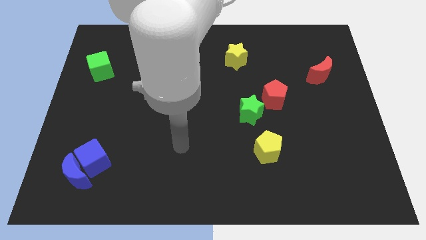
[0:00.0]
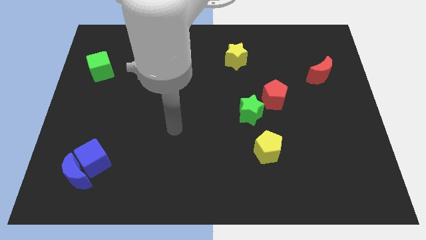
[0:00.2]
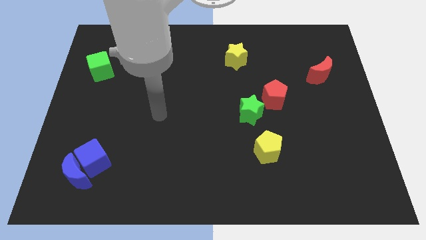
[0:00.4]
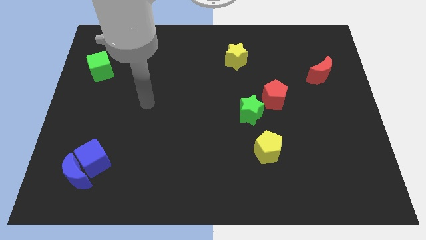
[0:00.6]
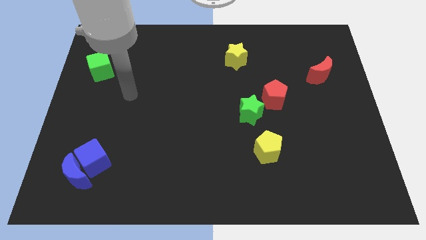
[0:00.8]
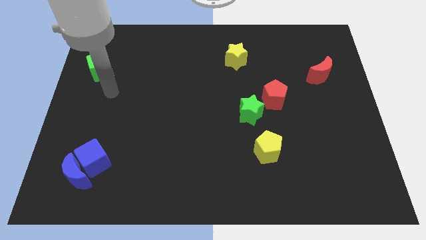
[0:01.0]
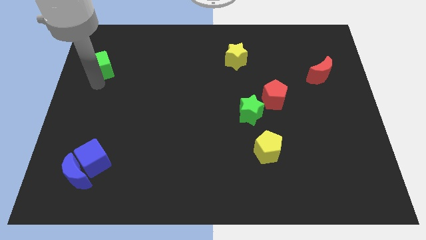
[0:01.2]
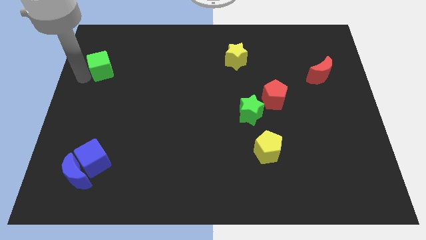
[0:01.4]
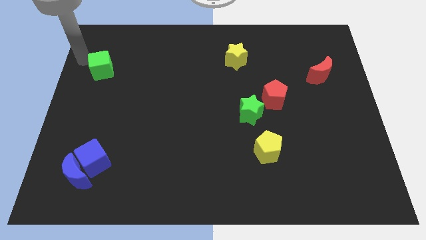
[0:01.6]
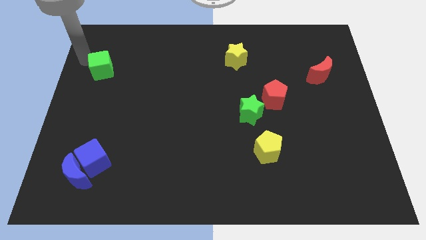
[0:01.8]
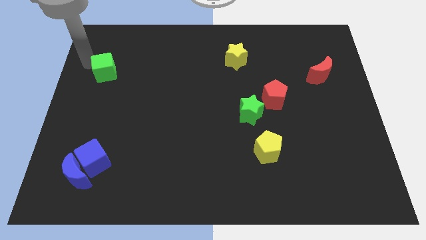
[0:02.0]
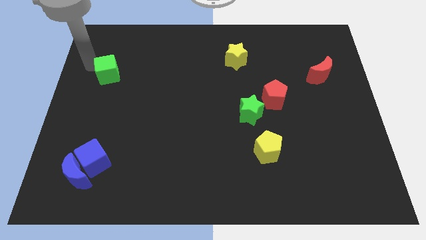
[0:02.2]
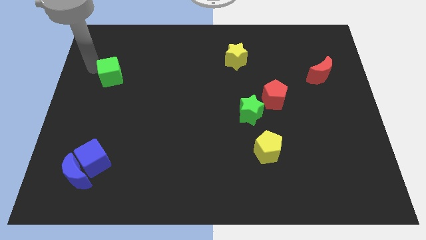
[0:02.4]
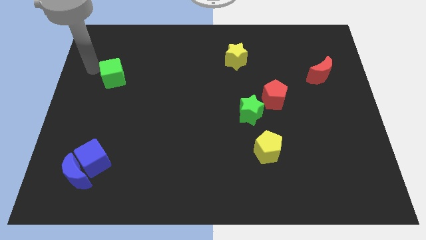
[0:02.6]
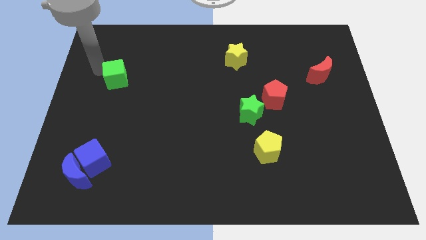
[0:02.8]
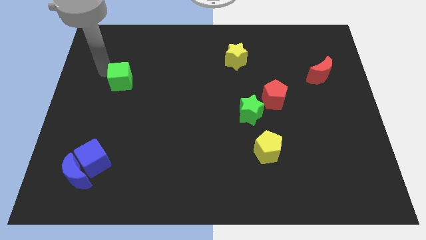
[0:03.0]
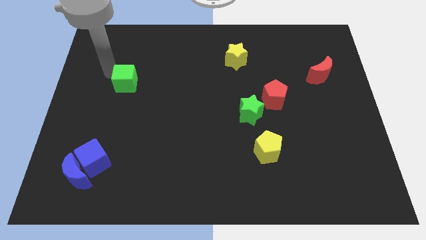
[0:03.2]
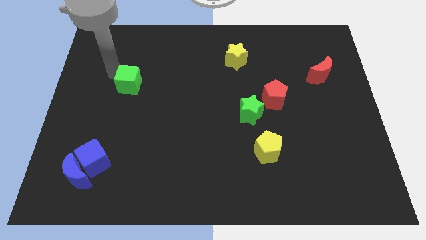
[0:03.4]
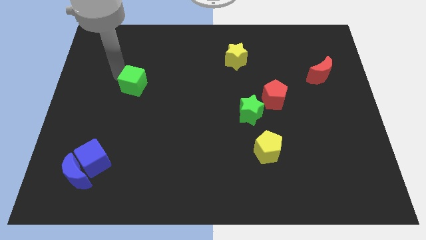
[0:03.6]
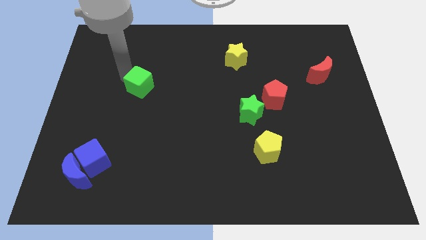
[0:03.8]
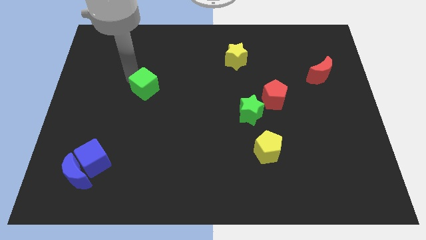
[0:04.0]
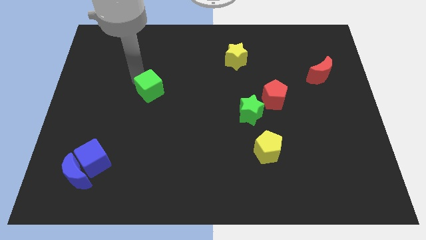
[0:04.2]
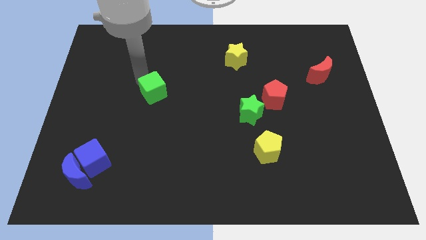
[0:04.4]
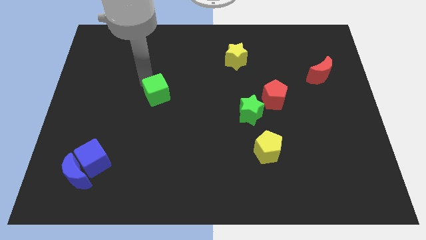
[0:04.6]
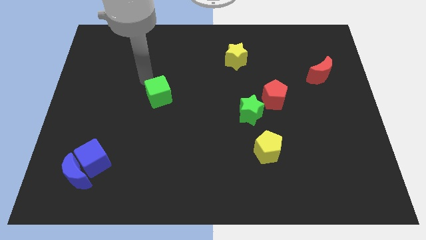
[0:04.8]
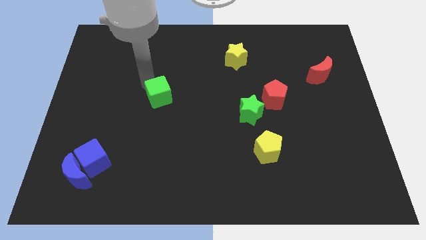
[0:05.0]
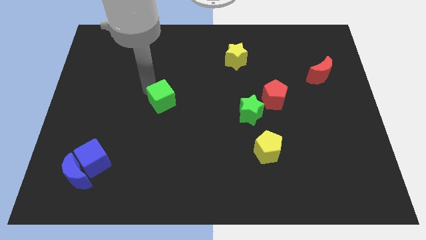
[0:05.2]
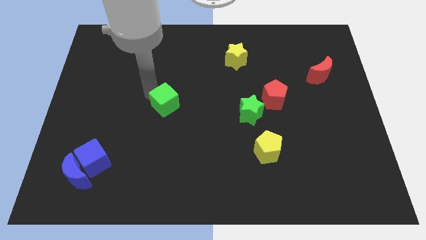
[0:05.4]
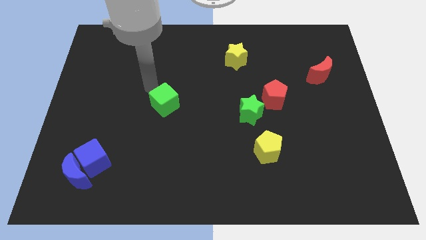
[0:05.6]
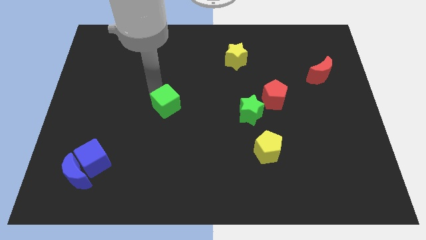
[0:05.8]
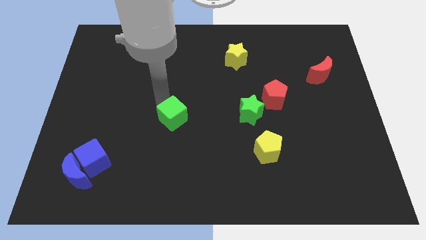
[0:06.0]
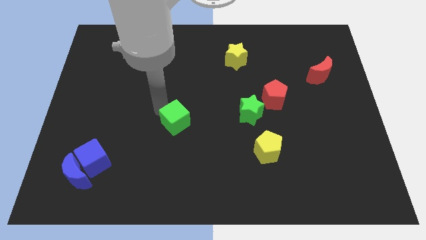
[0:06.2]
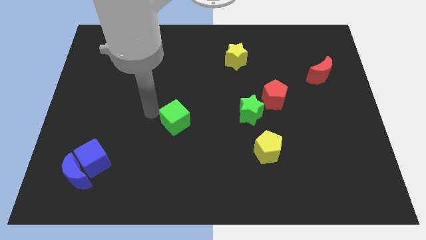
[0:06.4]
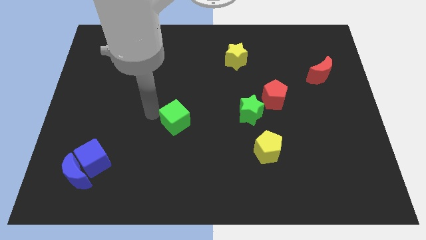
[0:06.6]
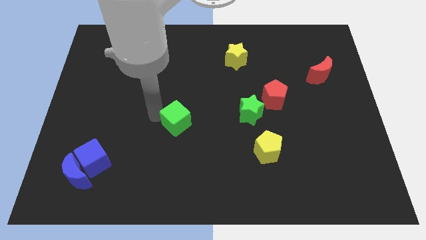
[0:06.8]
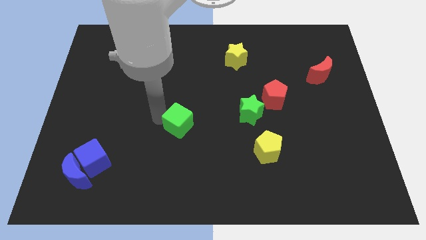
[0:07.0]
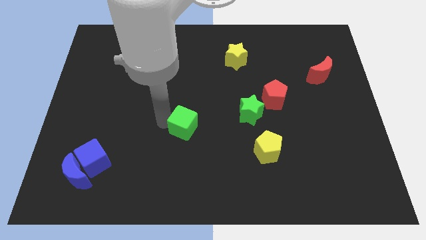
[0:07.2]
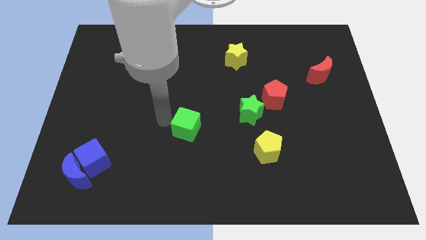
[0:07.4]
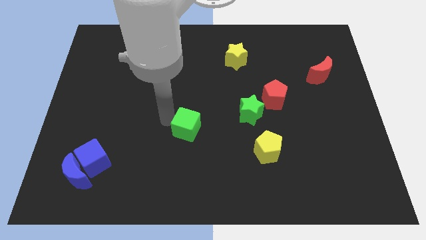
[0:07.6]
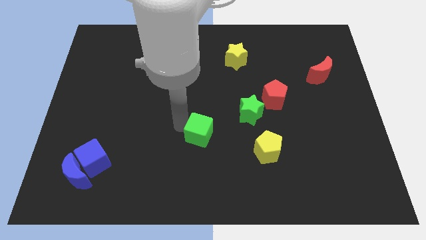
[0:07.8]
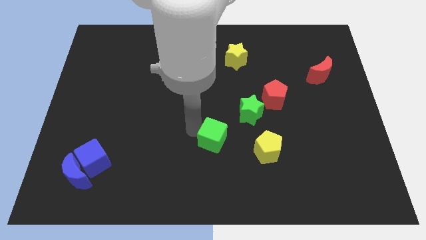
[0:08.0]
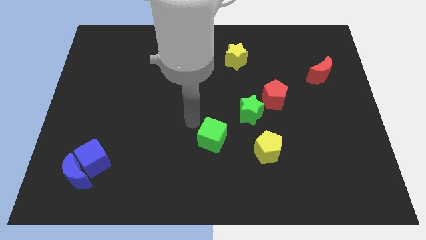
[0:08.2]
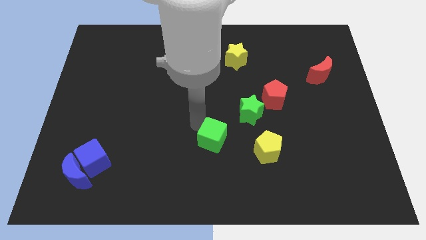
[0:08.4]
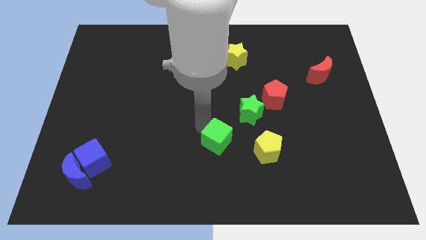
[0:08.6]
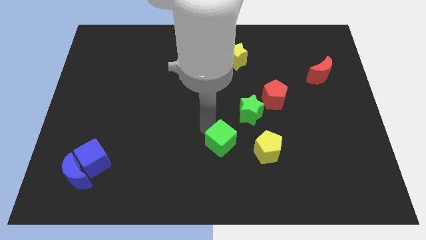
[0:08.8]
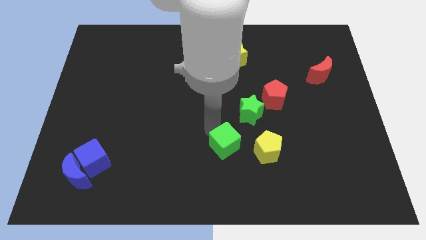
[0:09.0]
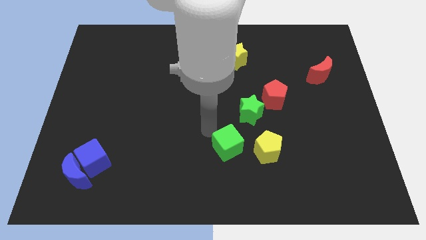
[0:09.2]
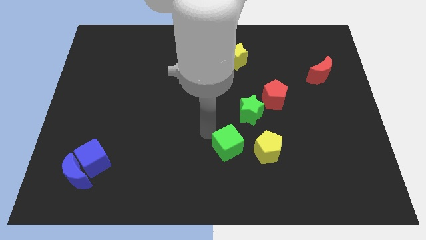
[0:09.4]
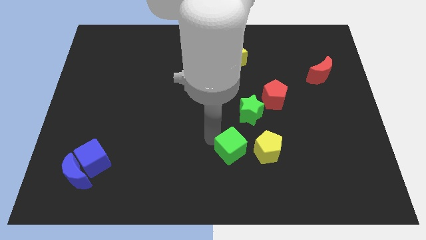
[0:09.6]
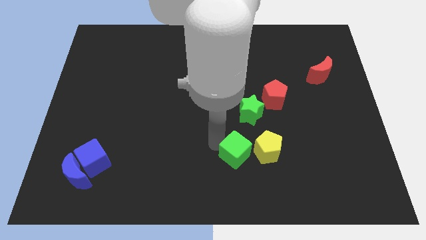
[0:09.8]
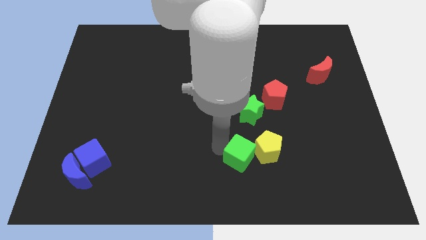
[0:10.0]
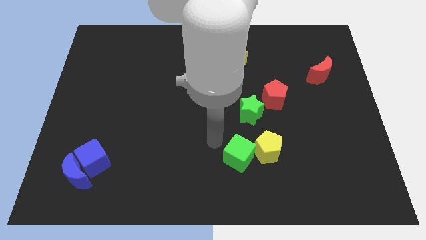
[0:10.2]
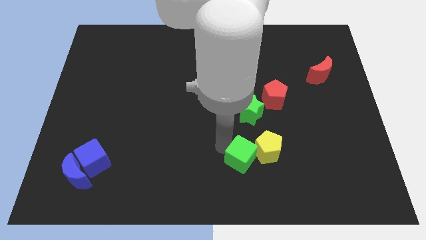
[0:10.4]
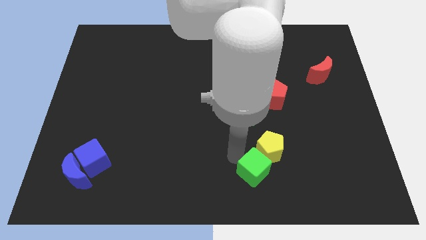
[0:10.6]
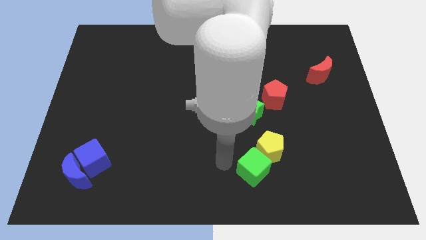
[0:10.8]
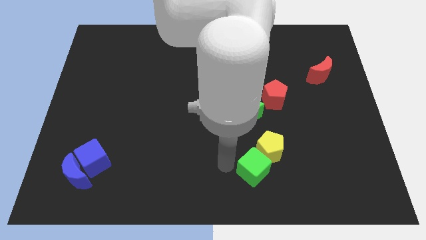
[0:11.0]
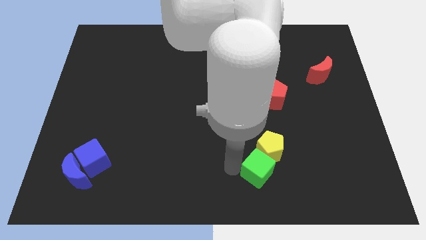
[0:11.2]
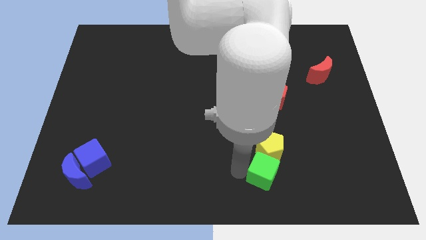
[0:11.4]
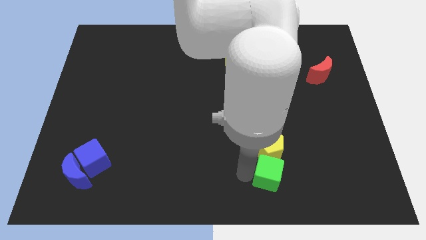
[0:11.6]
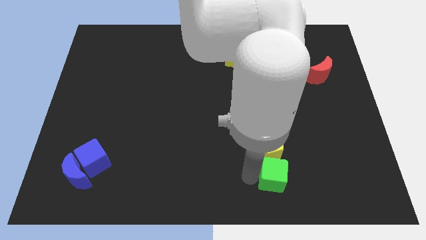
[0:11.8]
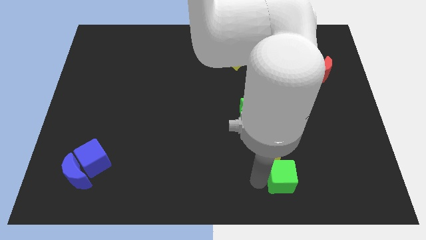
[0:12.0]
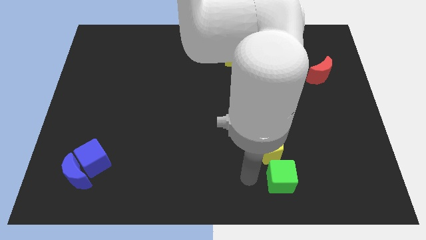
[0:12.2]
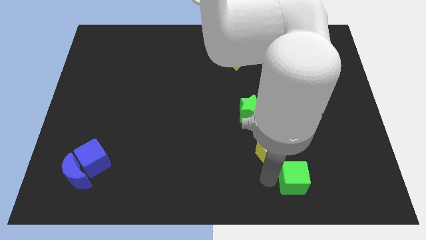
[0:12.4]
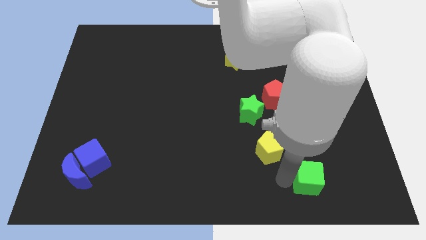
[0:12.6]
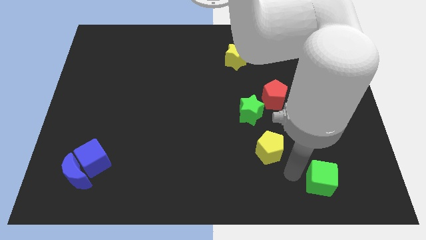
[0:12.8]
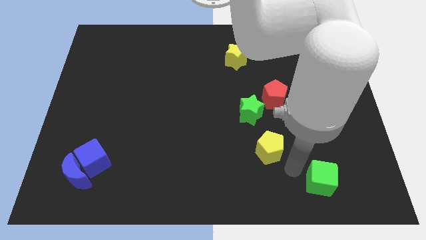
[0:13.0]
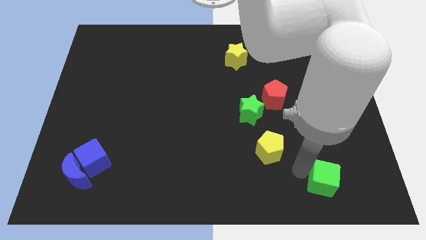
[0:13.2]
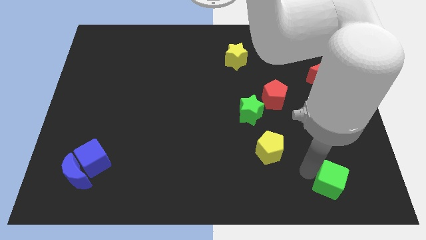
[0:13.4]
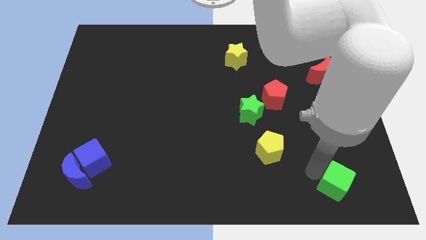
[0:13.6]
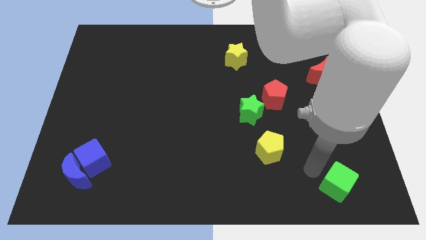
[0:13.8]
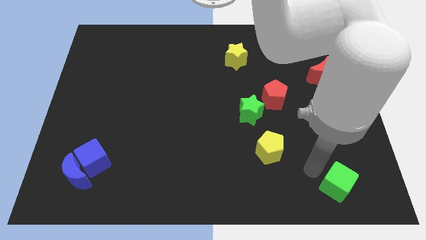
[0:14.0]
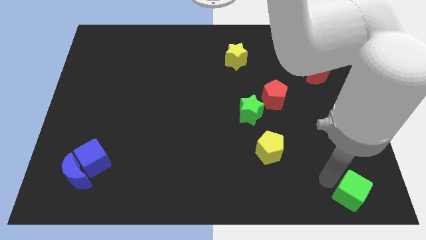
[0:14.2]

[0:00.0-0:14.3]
slide the green cube to the bottom right
